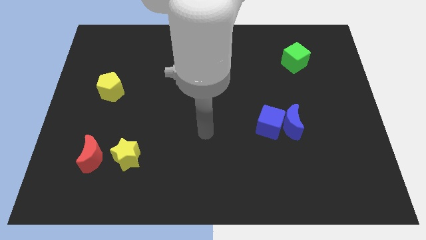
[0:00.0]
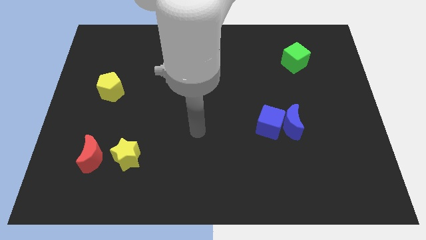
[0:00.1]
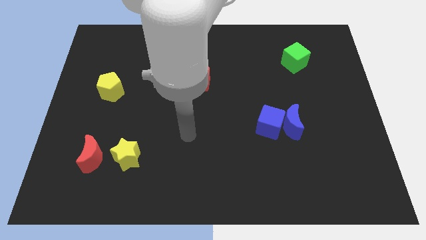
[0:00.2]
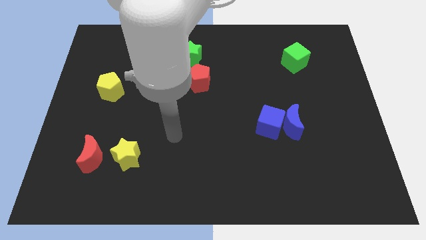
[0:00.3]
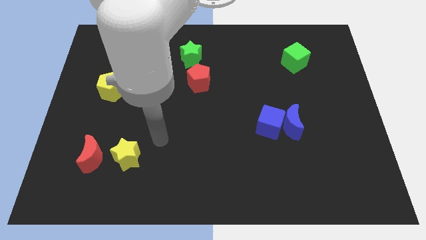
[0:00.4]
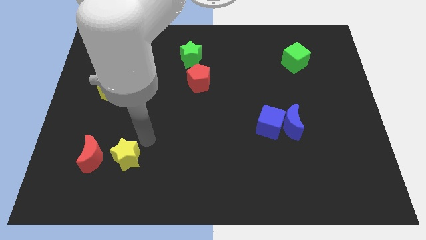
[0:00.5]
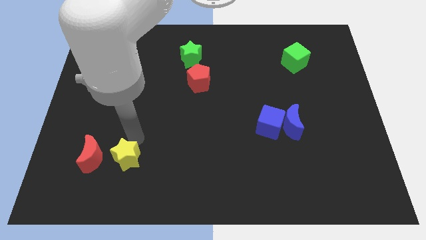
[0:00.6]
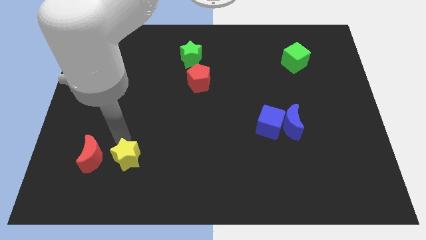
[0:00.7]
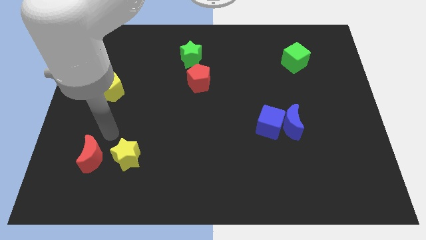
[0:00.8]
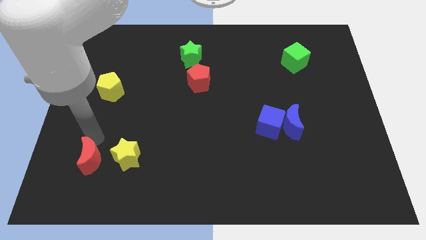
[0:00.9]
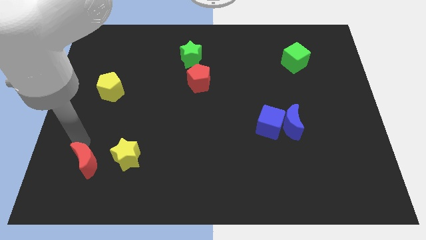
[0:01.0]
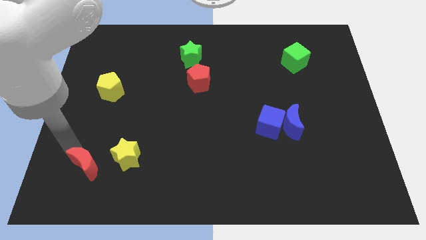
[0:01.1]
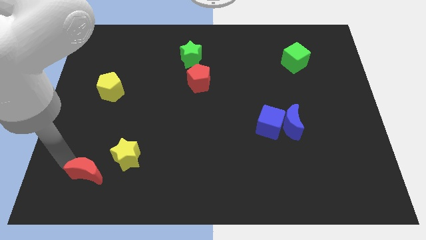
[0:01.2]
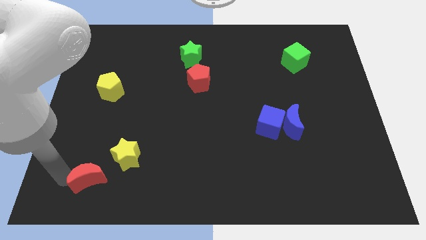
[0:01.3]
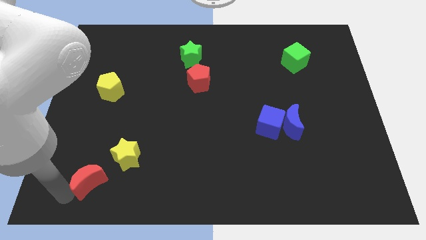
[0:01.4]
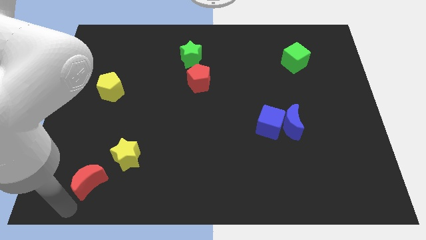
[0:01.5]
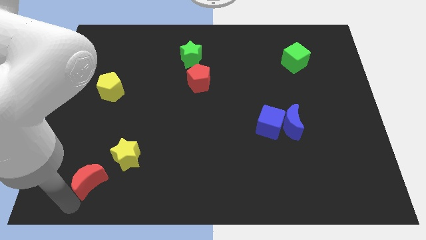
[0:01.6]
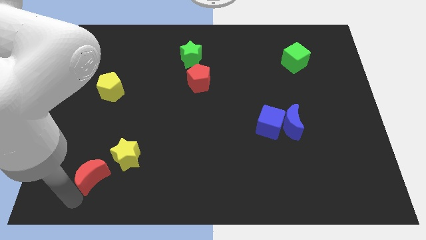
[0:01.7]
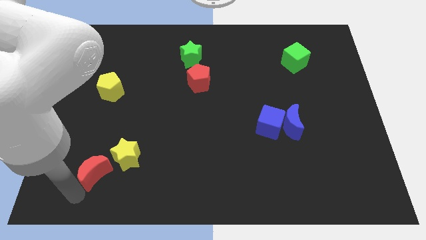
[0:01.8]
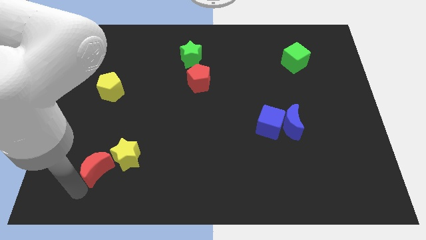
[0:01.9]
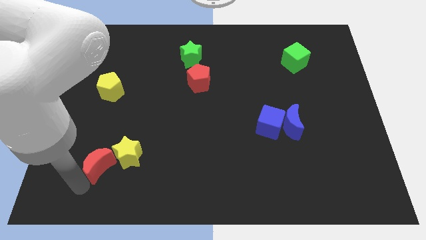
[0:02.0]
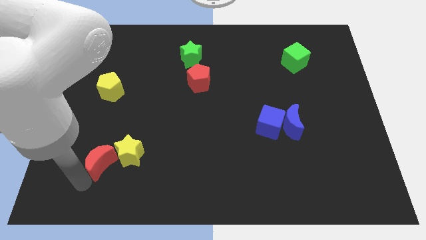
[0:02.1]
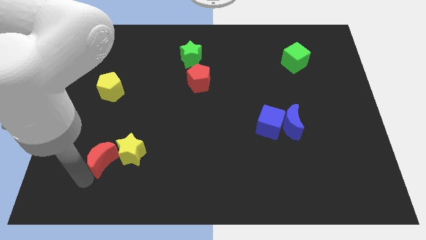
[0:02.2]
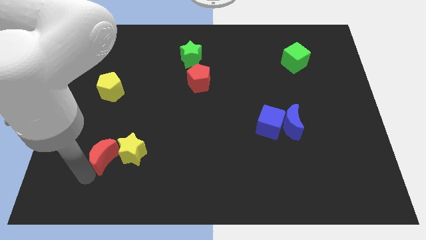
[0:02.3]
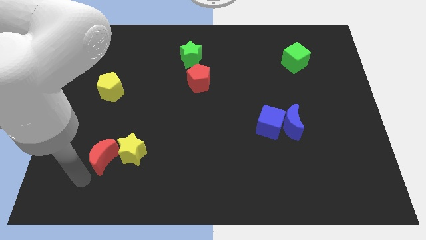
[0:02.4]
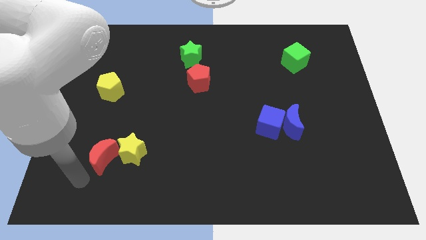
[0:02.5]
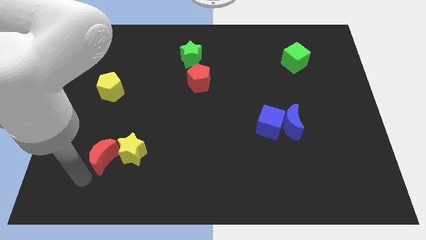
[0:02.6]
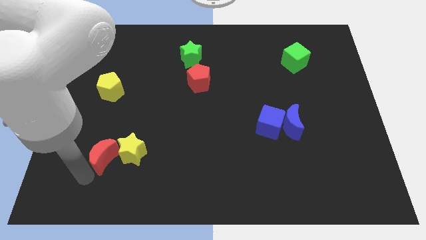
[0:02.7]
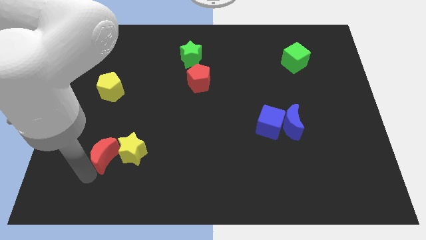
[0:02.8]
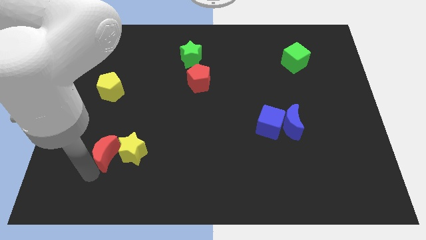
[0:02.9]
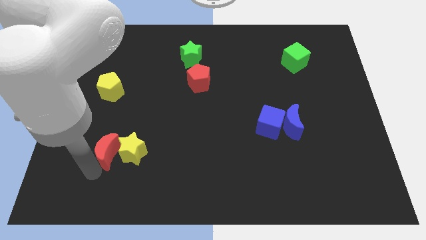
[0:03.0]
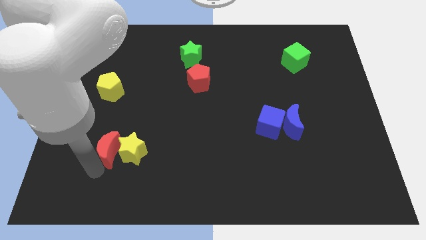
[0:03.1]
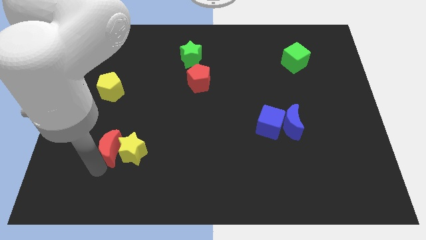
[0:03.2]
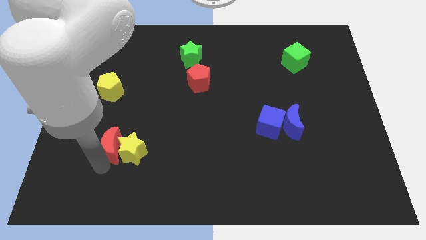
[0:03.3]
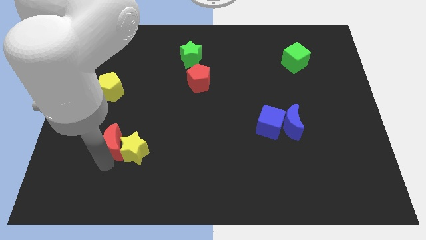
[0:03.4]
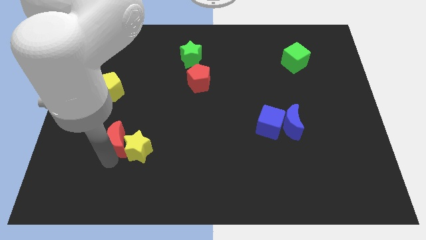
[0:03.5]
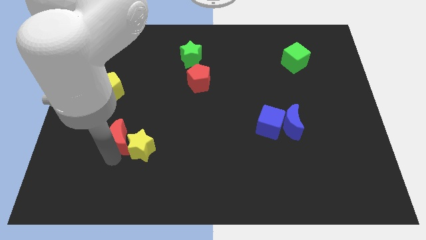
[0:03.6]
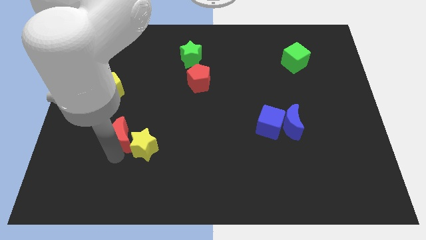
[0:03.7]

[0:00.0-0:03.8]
push the red moon up and then right a little

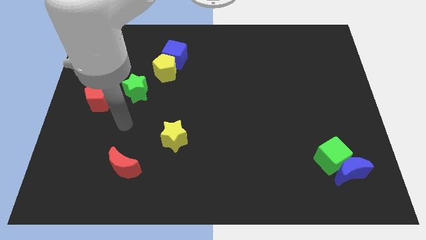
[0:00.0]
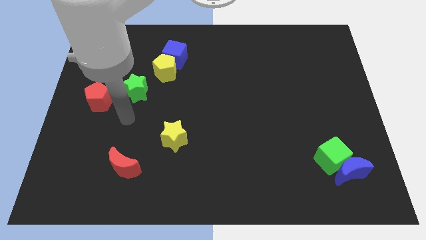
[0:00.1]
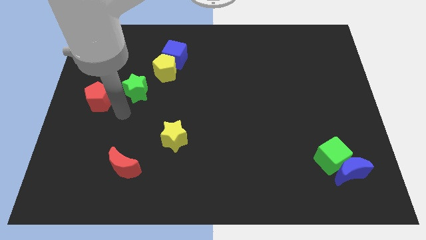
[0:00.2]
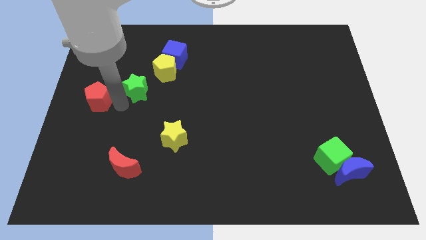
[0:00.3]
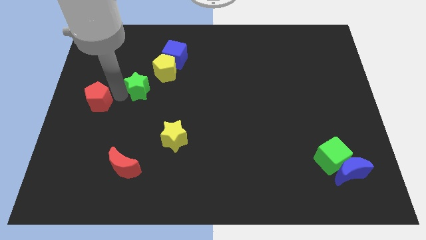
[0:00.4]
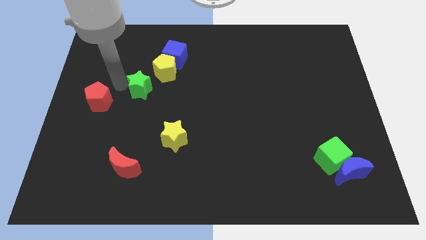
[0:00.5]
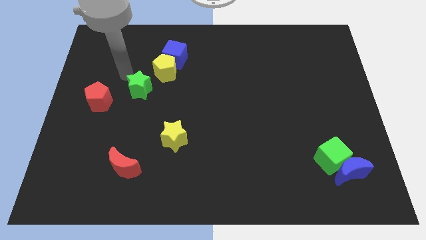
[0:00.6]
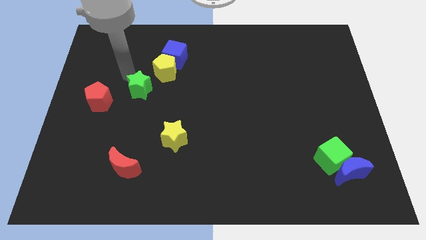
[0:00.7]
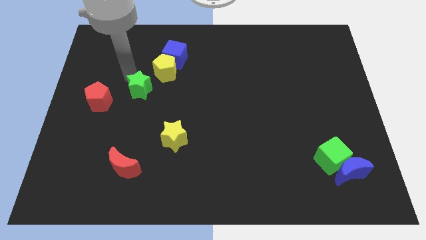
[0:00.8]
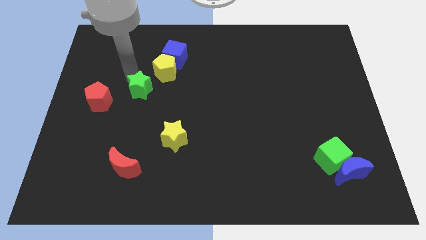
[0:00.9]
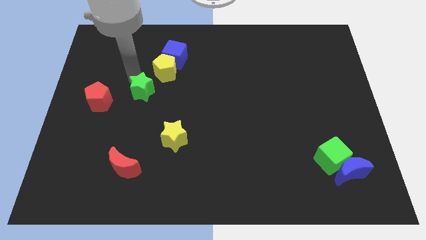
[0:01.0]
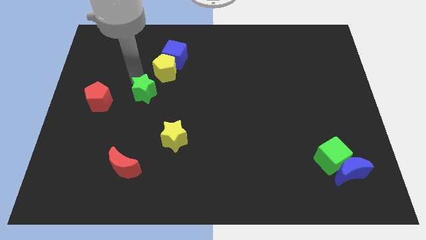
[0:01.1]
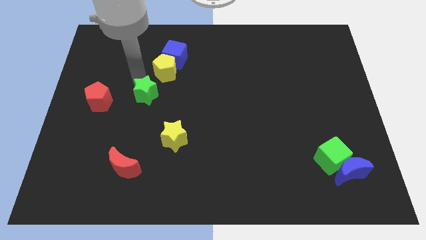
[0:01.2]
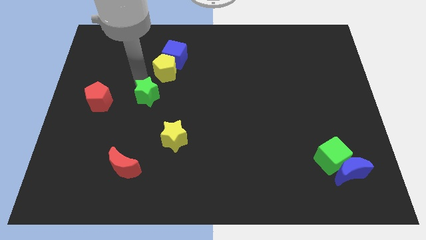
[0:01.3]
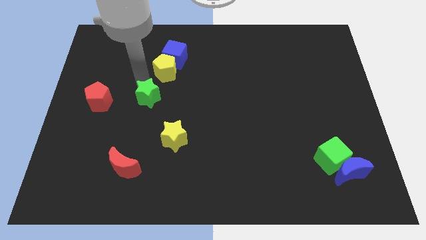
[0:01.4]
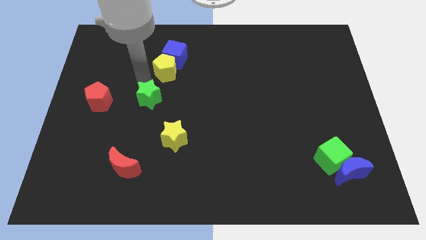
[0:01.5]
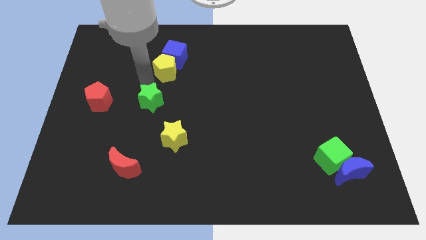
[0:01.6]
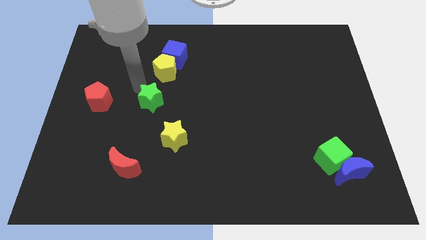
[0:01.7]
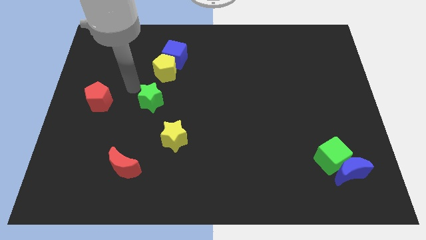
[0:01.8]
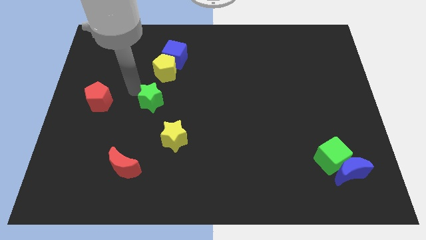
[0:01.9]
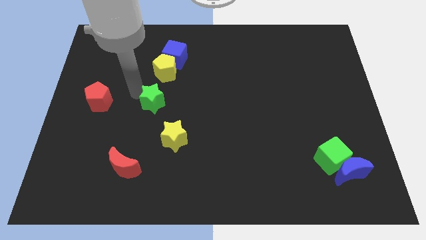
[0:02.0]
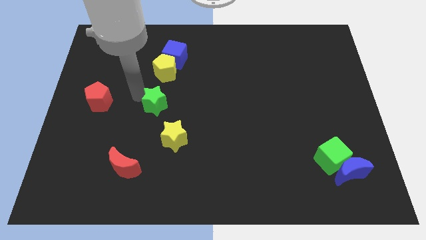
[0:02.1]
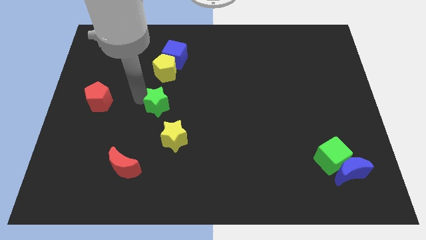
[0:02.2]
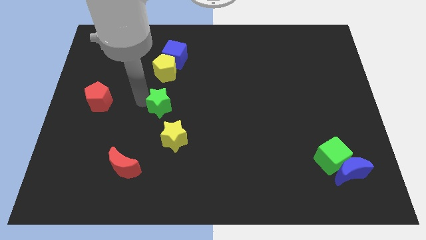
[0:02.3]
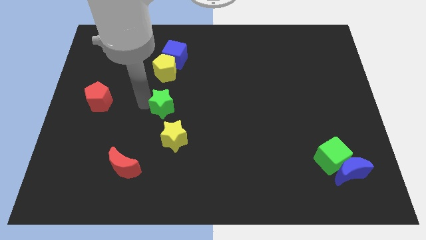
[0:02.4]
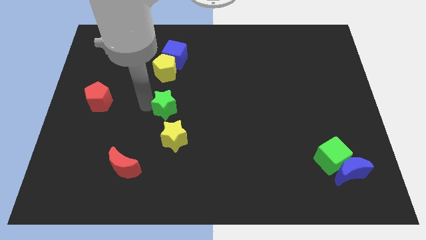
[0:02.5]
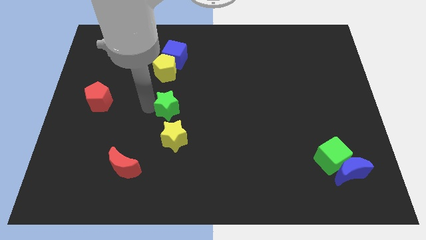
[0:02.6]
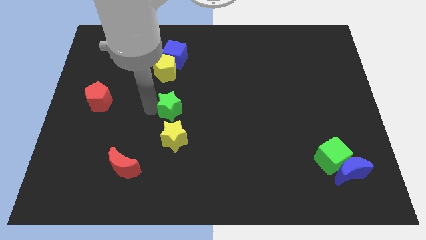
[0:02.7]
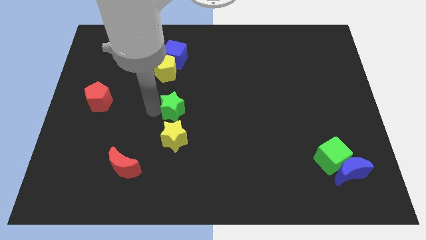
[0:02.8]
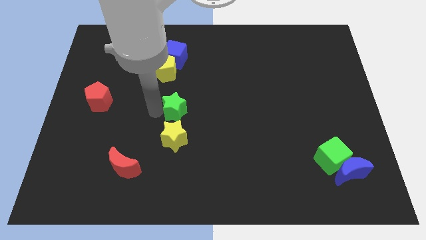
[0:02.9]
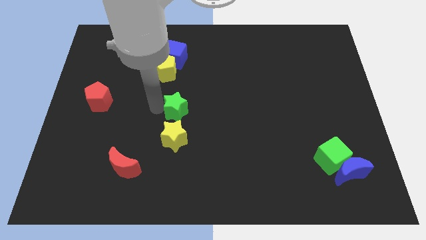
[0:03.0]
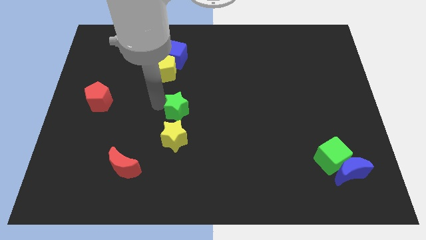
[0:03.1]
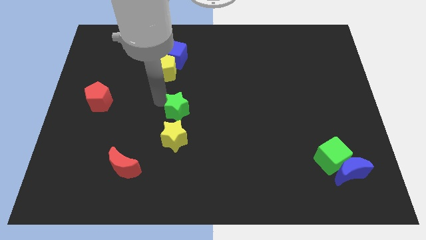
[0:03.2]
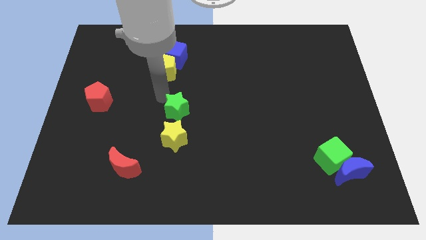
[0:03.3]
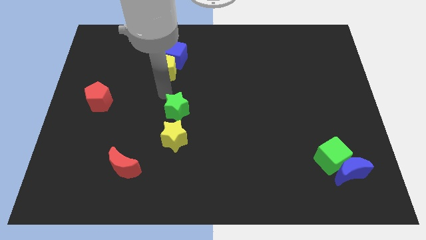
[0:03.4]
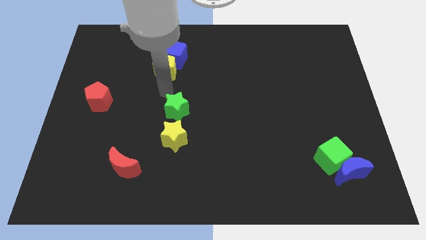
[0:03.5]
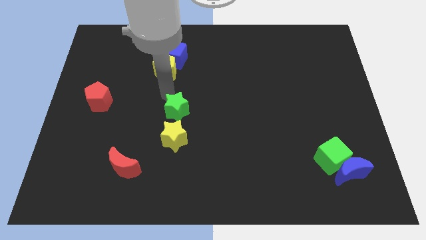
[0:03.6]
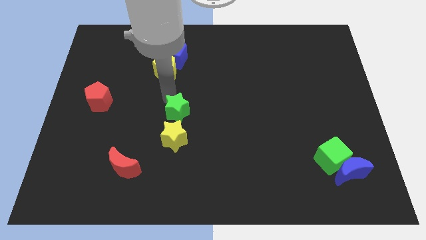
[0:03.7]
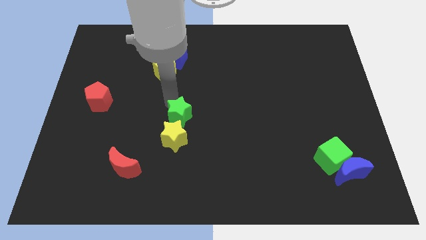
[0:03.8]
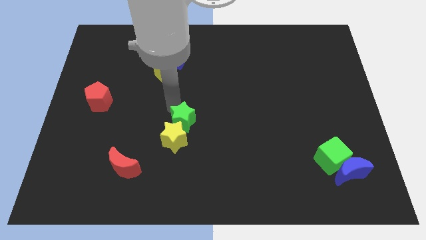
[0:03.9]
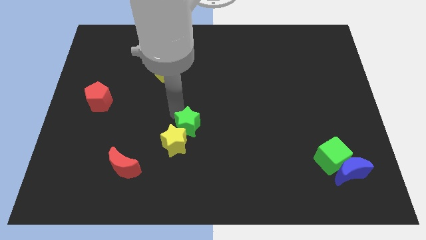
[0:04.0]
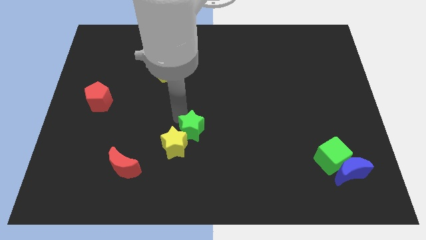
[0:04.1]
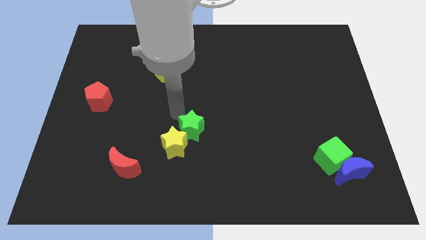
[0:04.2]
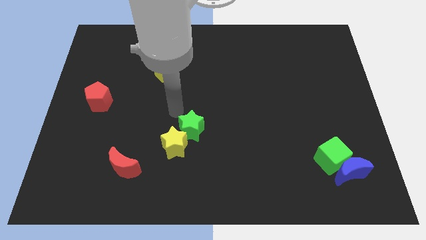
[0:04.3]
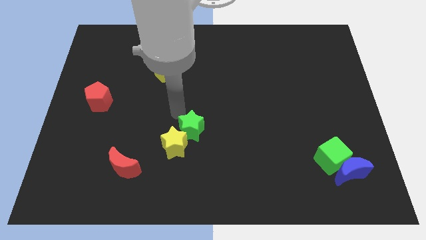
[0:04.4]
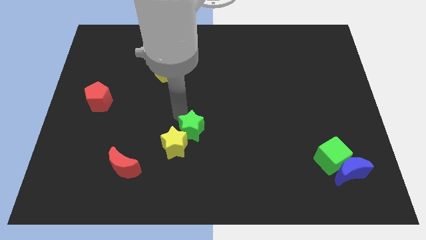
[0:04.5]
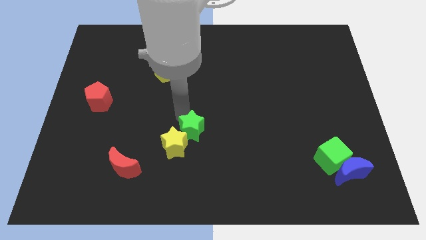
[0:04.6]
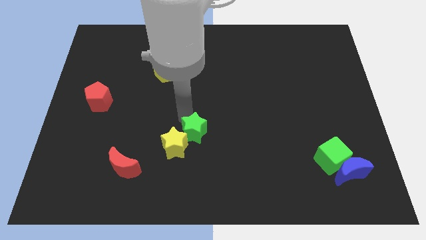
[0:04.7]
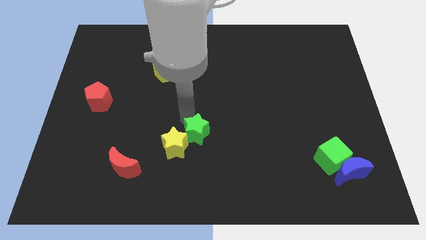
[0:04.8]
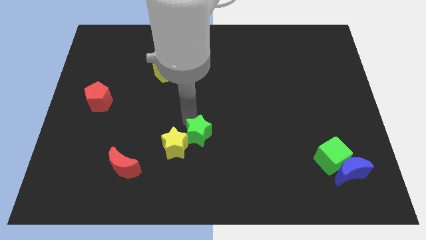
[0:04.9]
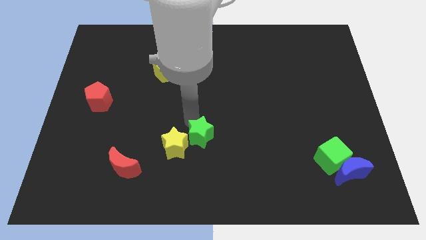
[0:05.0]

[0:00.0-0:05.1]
move the green star diagonally downwards and to the right
